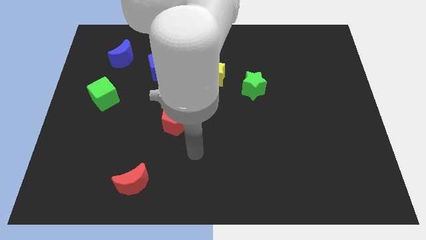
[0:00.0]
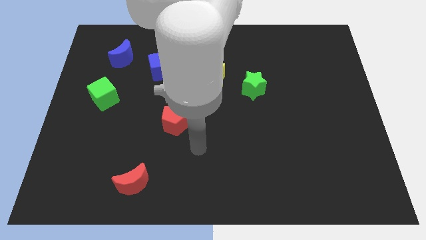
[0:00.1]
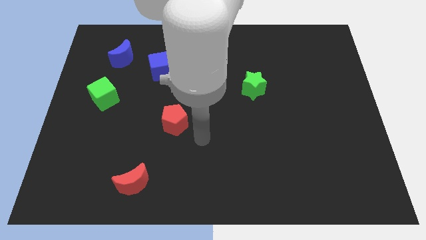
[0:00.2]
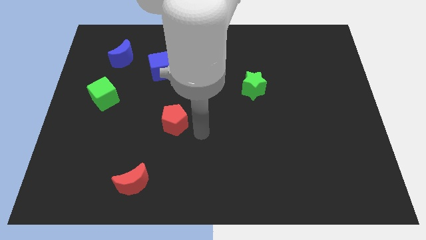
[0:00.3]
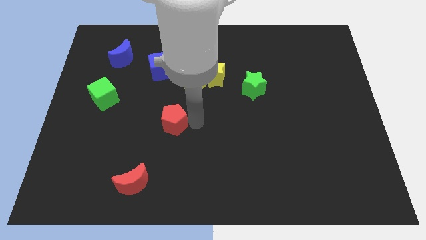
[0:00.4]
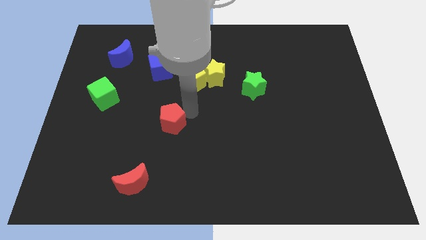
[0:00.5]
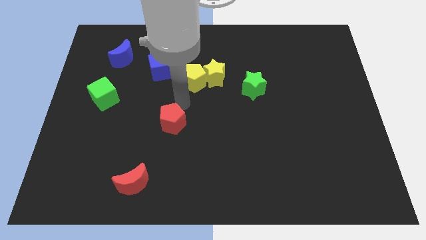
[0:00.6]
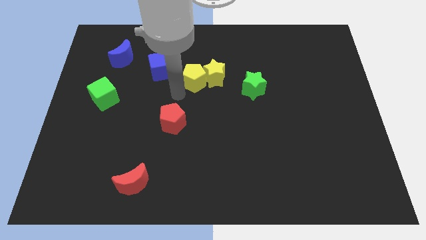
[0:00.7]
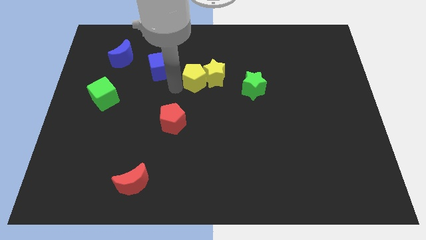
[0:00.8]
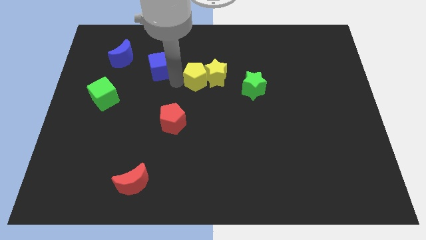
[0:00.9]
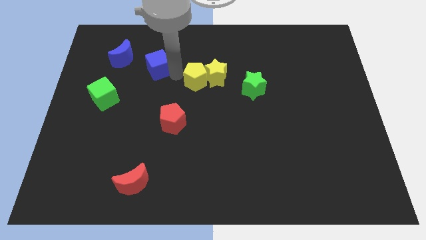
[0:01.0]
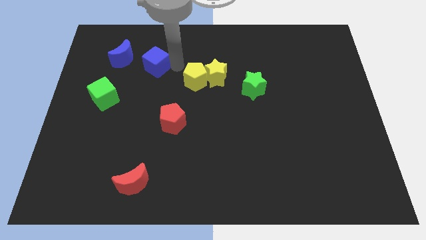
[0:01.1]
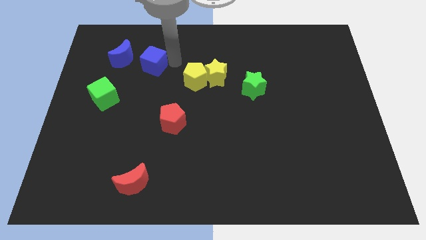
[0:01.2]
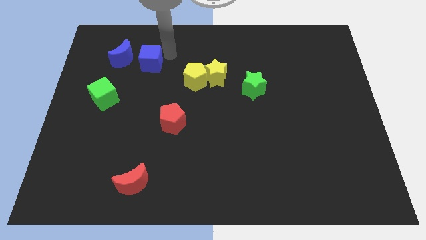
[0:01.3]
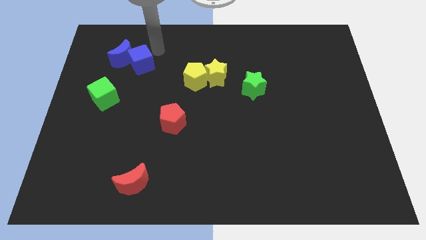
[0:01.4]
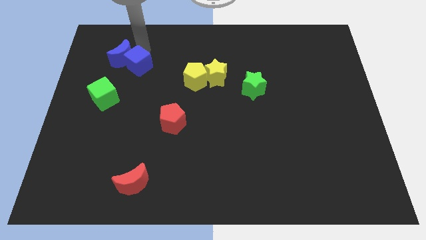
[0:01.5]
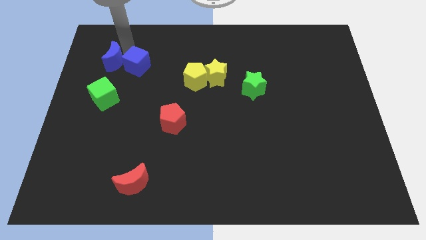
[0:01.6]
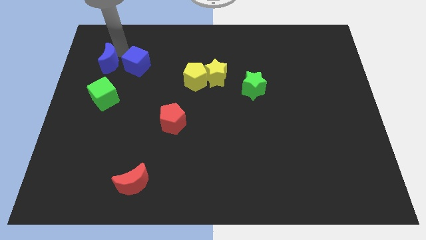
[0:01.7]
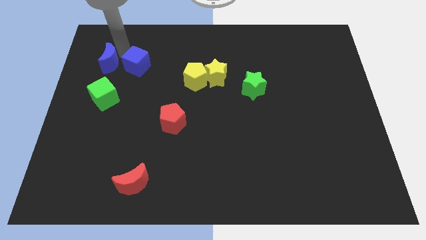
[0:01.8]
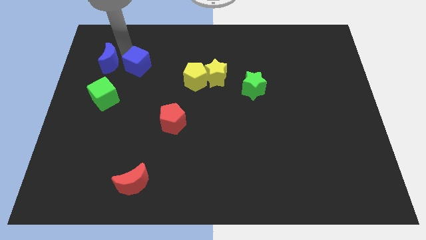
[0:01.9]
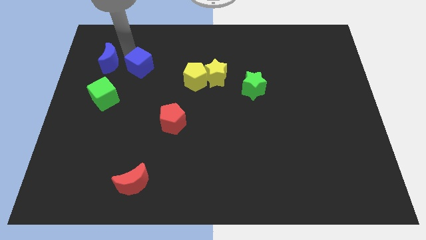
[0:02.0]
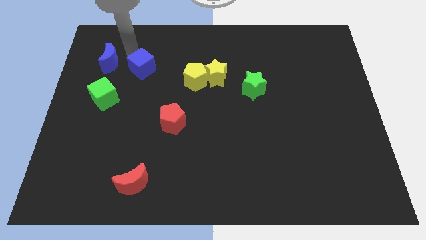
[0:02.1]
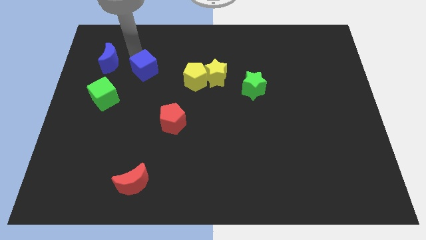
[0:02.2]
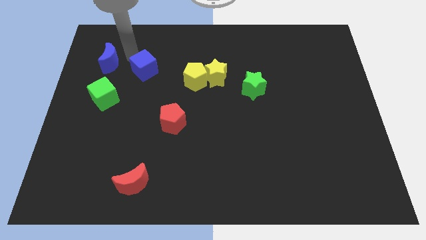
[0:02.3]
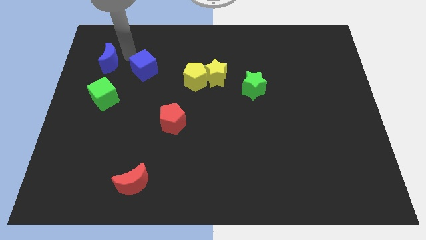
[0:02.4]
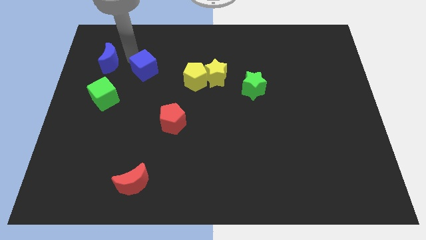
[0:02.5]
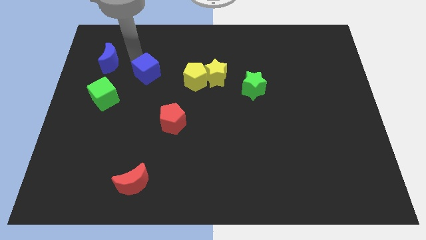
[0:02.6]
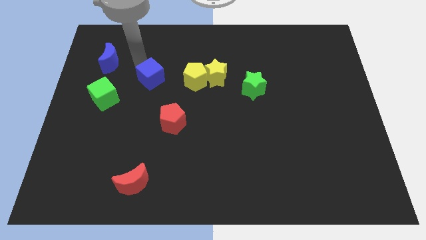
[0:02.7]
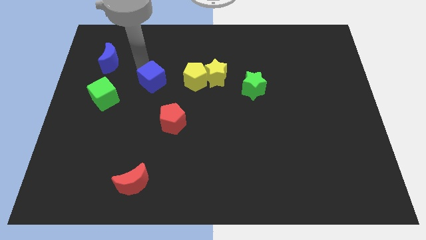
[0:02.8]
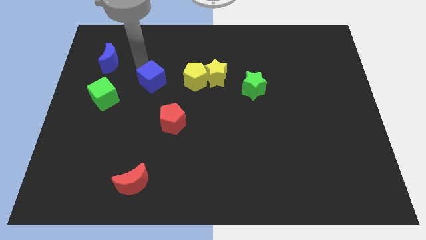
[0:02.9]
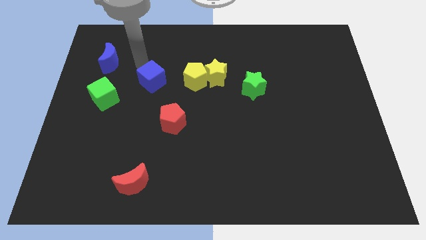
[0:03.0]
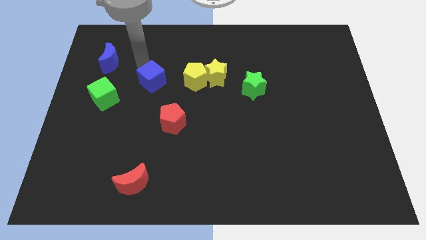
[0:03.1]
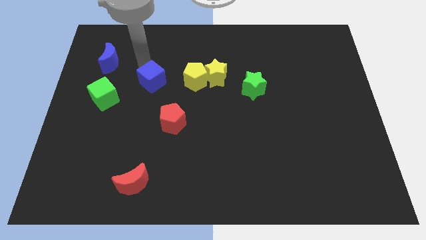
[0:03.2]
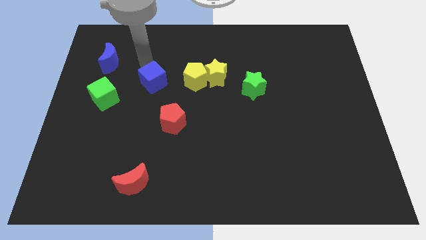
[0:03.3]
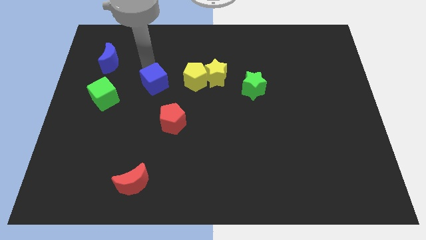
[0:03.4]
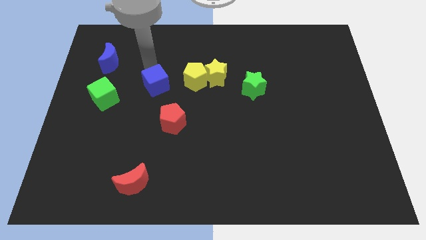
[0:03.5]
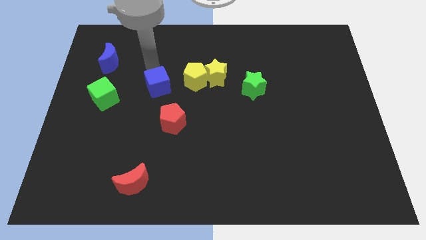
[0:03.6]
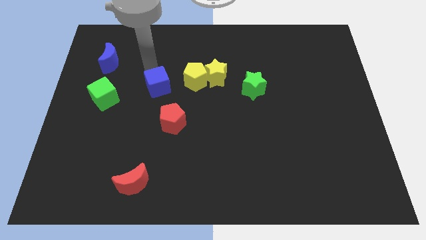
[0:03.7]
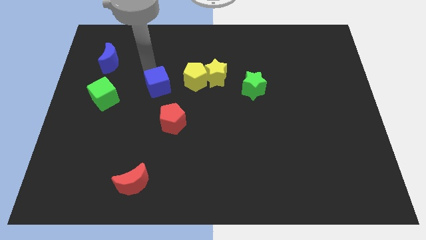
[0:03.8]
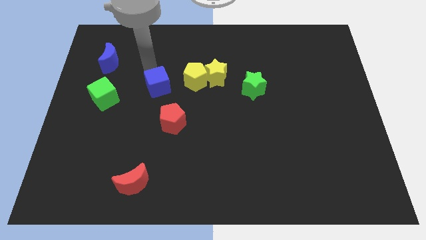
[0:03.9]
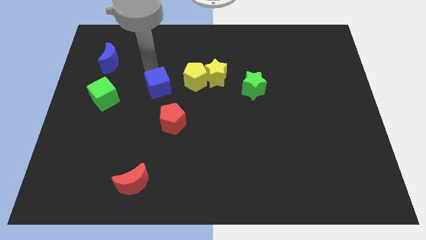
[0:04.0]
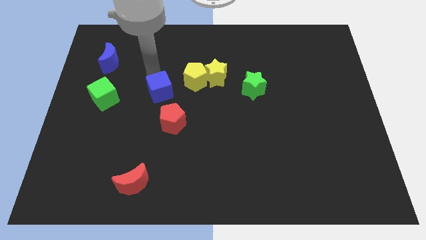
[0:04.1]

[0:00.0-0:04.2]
move the blue cube down a bit

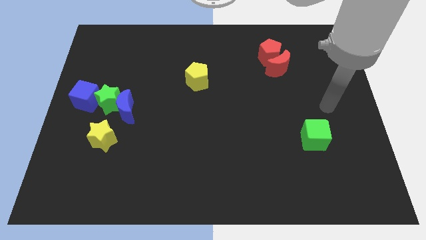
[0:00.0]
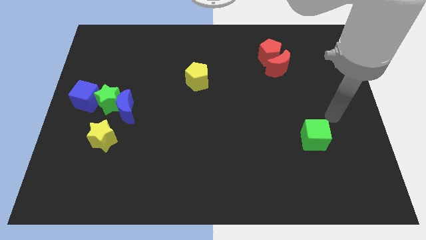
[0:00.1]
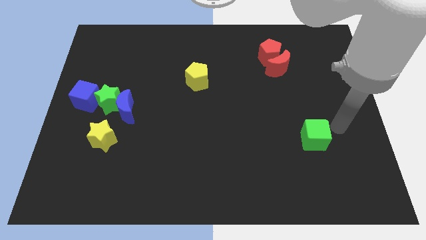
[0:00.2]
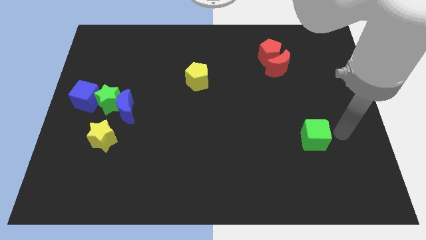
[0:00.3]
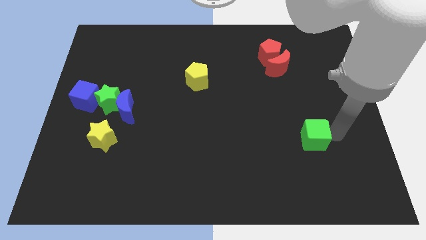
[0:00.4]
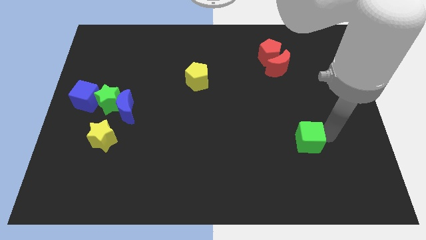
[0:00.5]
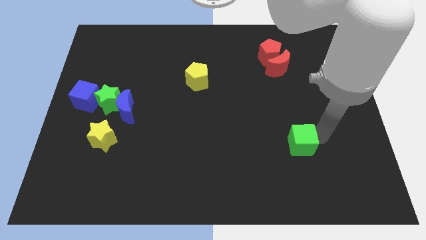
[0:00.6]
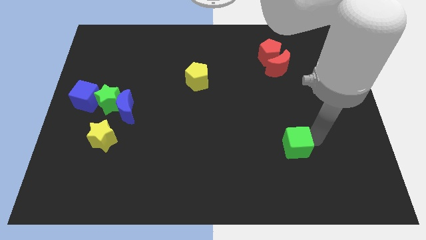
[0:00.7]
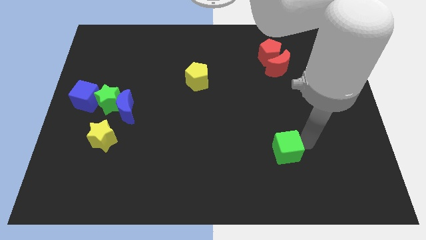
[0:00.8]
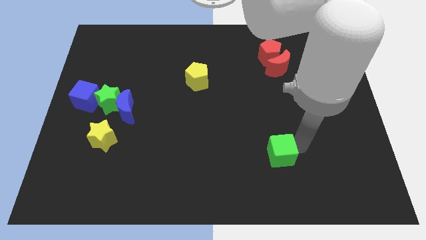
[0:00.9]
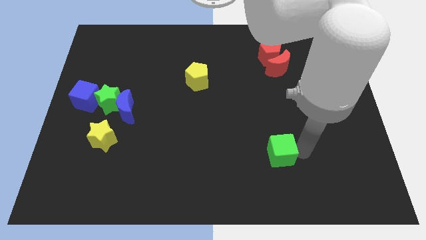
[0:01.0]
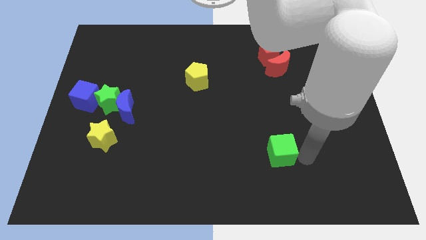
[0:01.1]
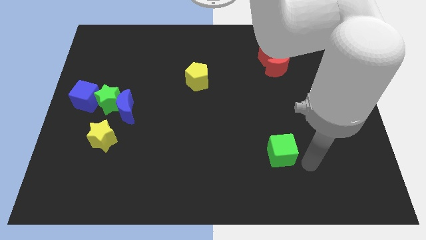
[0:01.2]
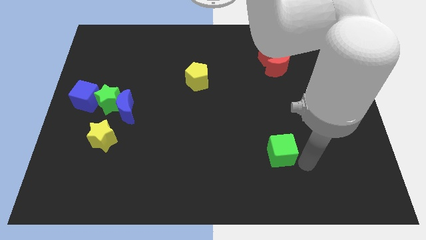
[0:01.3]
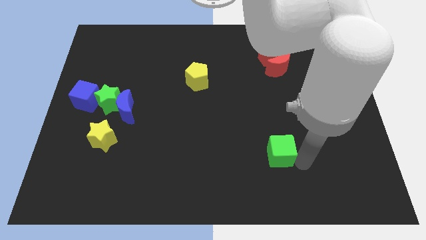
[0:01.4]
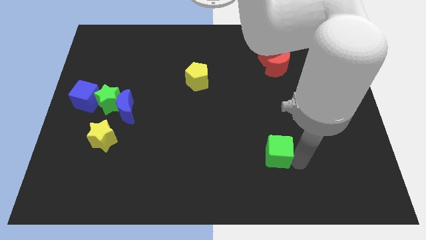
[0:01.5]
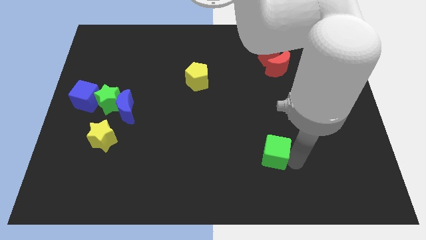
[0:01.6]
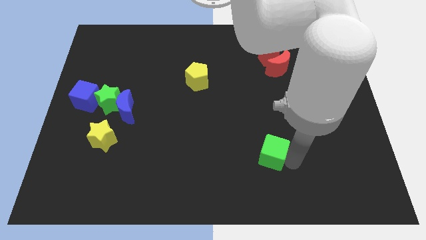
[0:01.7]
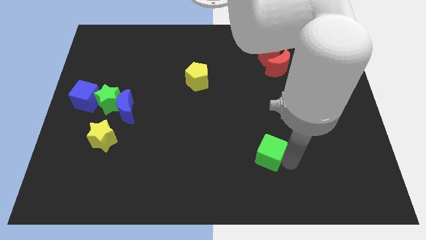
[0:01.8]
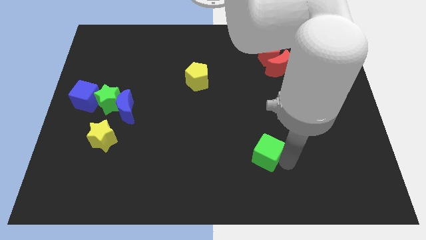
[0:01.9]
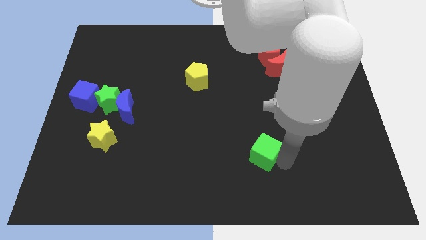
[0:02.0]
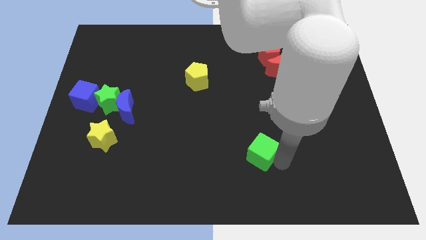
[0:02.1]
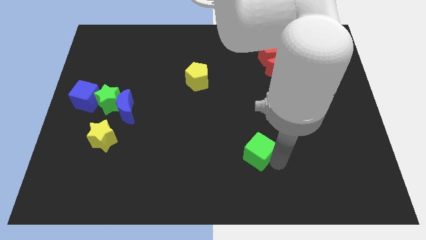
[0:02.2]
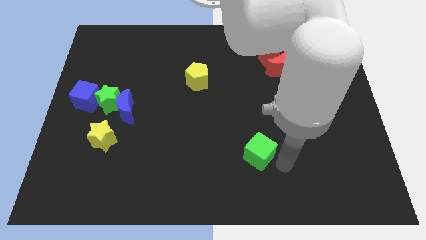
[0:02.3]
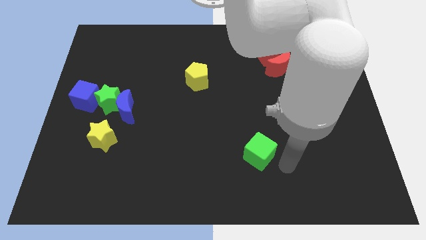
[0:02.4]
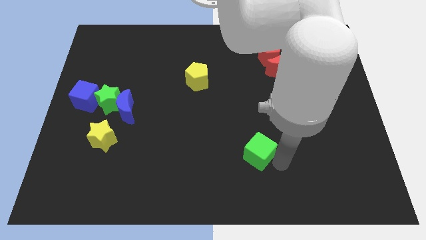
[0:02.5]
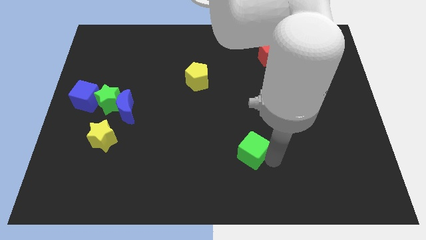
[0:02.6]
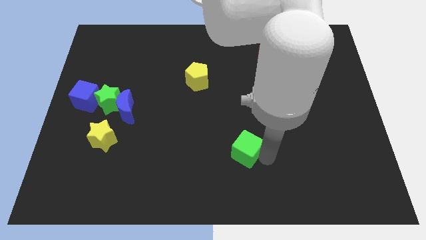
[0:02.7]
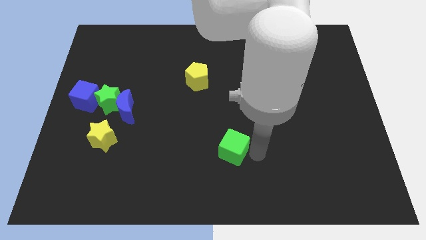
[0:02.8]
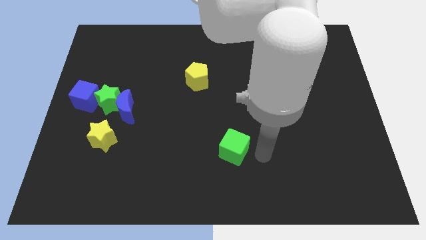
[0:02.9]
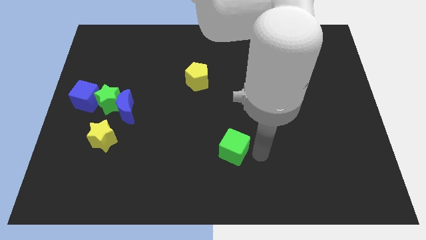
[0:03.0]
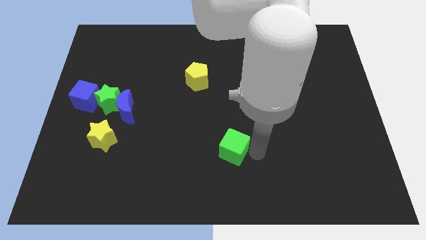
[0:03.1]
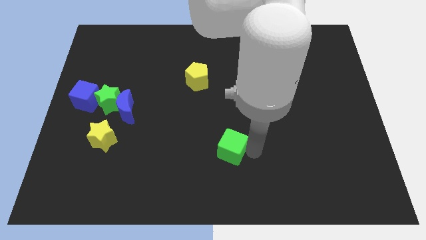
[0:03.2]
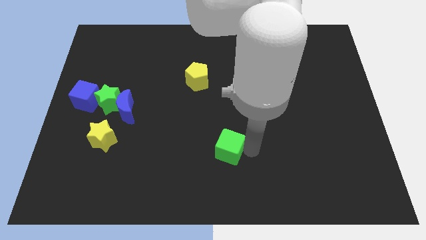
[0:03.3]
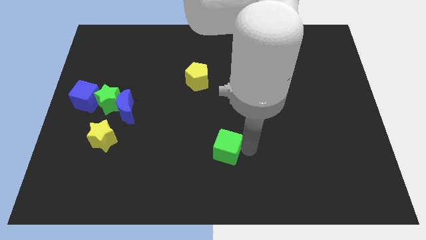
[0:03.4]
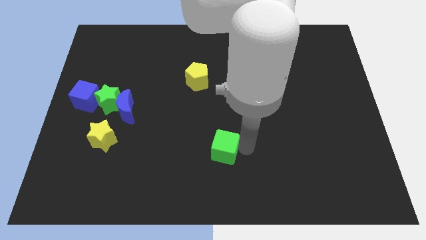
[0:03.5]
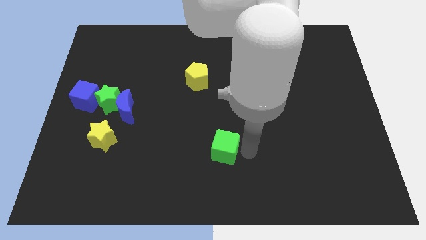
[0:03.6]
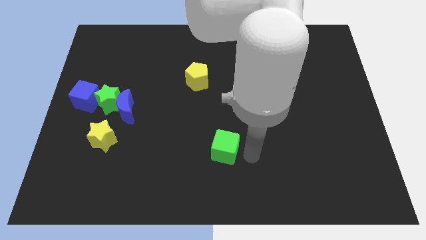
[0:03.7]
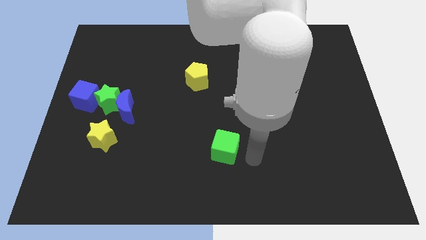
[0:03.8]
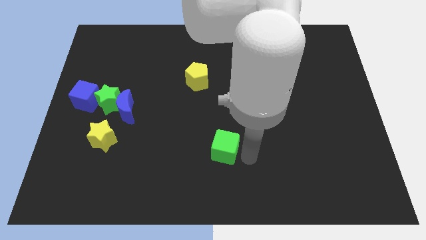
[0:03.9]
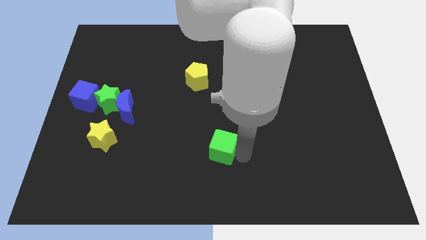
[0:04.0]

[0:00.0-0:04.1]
push the green cube left
